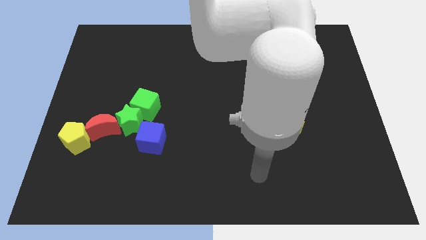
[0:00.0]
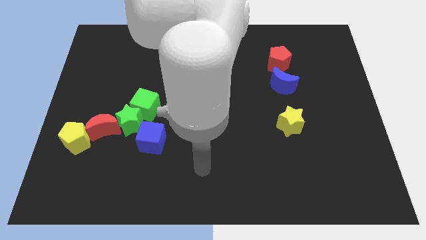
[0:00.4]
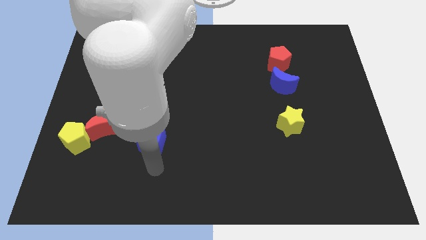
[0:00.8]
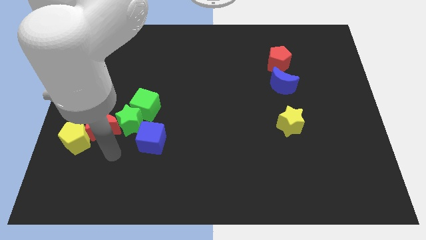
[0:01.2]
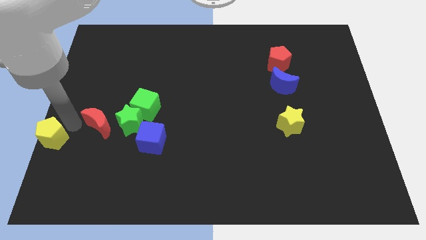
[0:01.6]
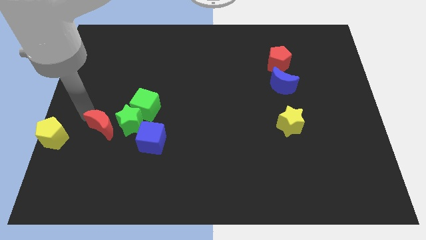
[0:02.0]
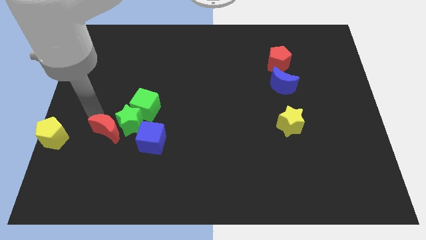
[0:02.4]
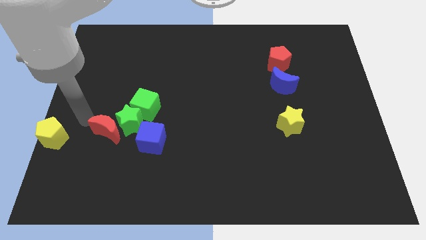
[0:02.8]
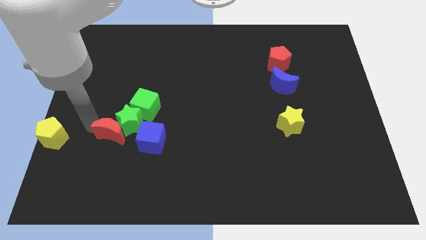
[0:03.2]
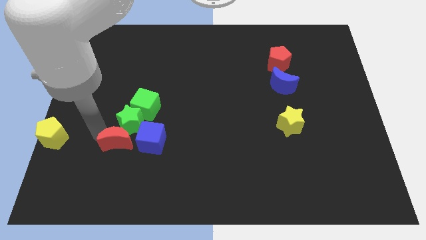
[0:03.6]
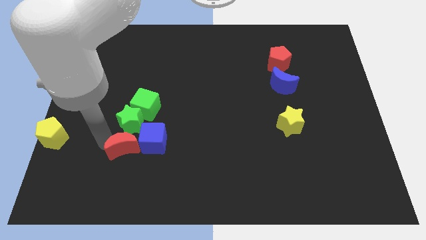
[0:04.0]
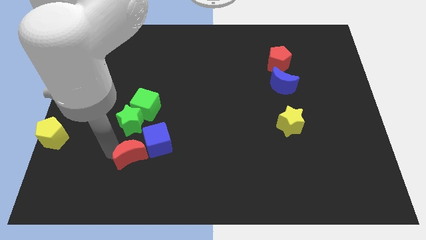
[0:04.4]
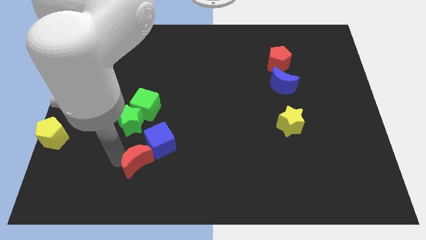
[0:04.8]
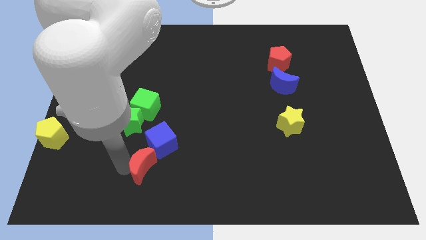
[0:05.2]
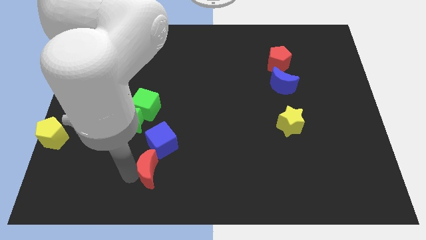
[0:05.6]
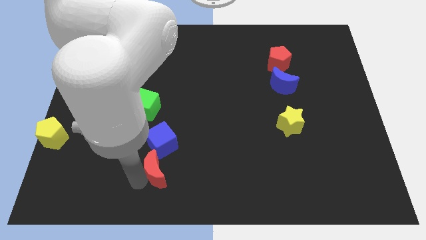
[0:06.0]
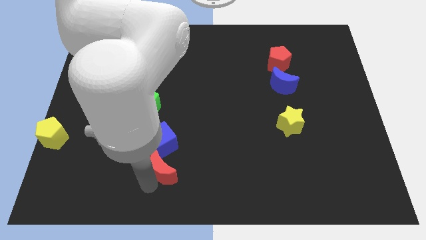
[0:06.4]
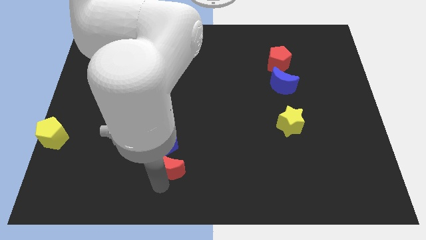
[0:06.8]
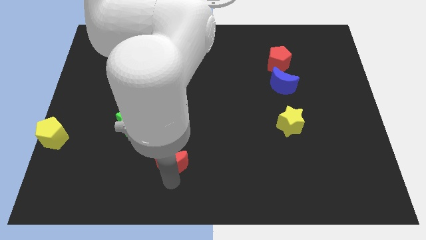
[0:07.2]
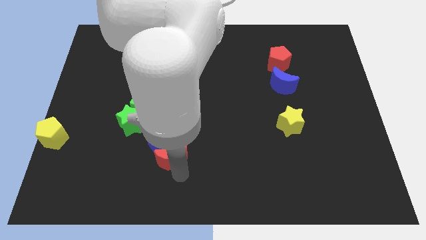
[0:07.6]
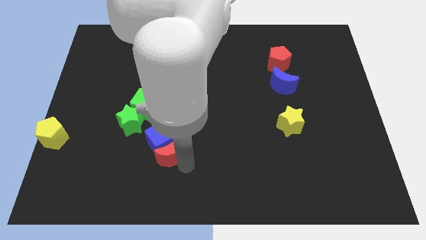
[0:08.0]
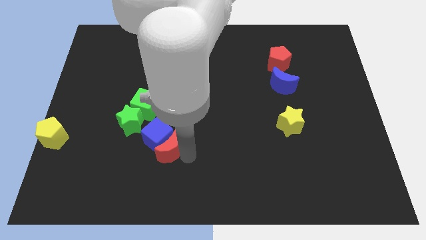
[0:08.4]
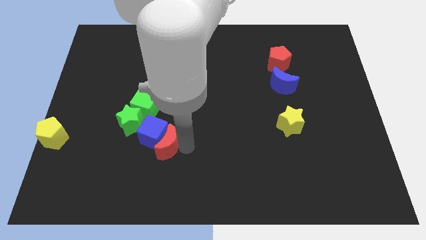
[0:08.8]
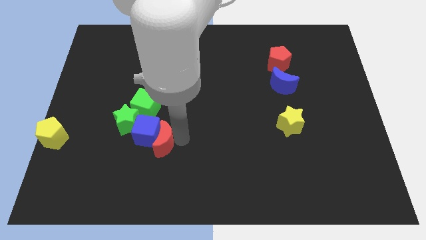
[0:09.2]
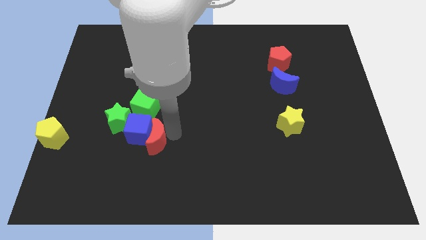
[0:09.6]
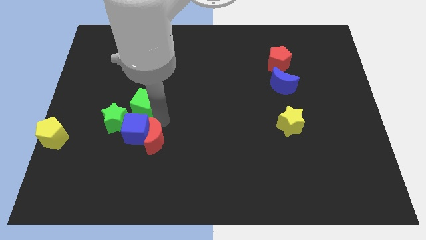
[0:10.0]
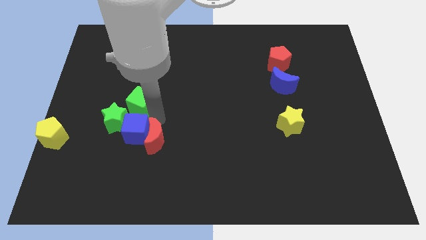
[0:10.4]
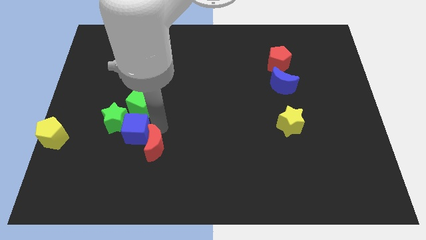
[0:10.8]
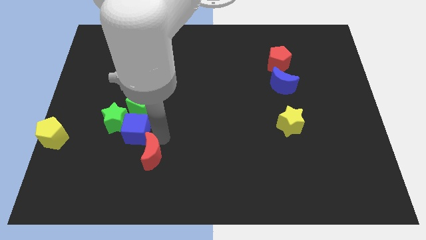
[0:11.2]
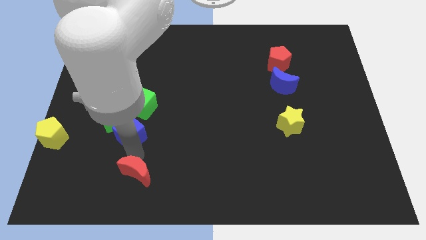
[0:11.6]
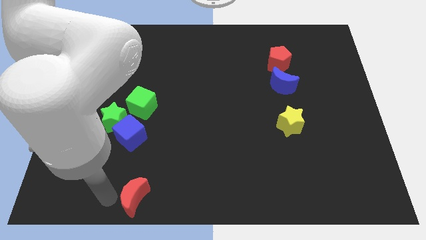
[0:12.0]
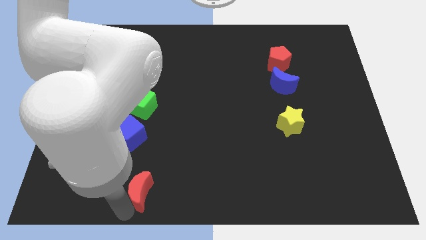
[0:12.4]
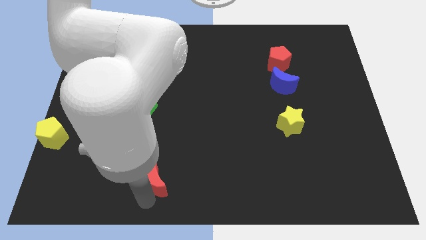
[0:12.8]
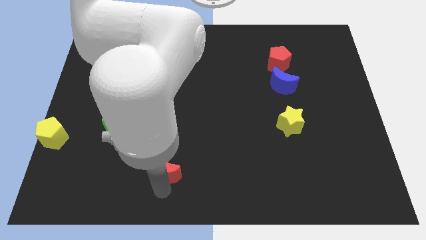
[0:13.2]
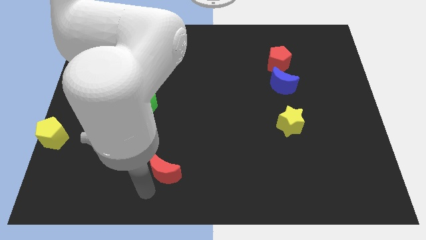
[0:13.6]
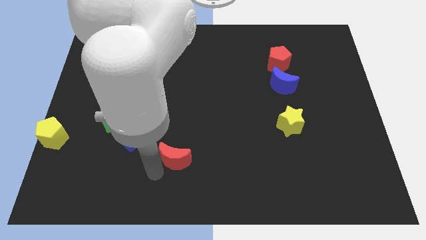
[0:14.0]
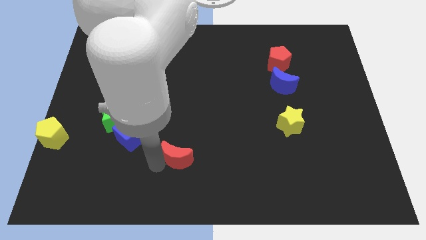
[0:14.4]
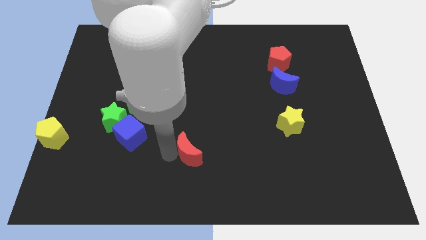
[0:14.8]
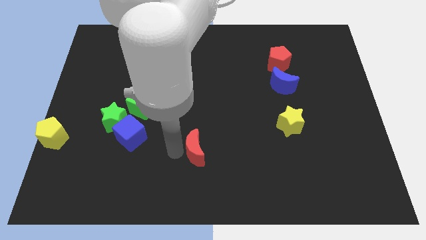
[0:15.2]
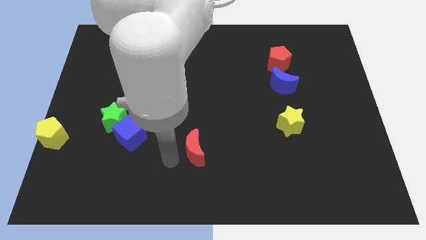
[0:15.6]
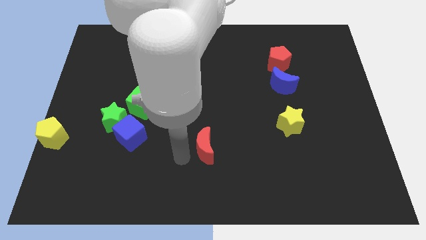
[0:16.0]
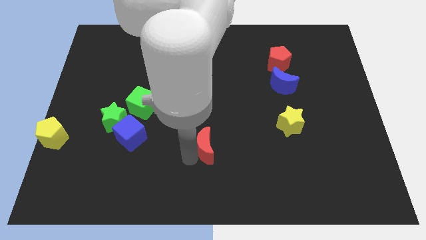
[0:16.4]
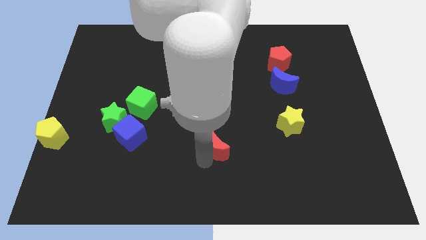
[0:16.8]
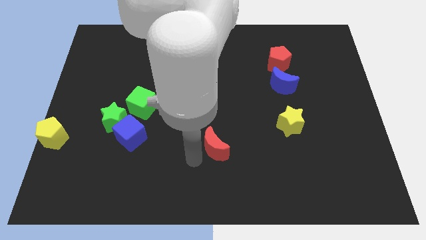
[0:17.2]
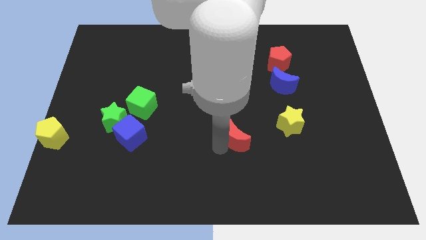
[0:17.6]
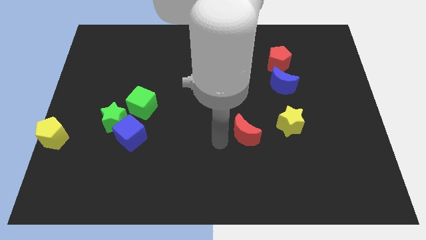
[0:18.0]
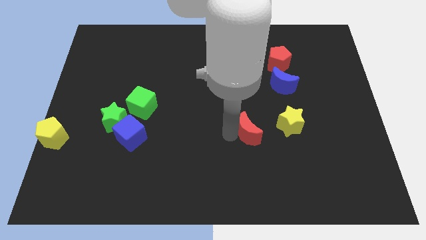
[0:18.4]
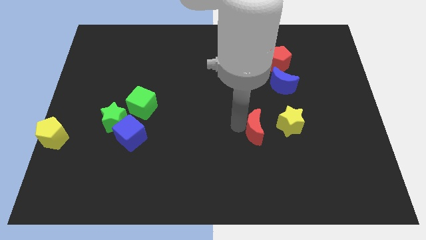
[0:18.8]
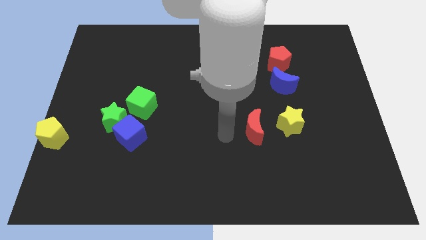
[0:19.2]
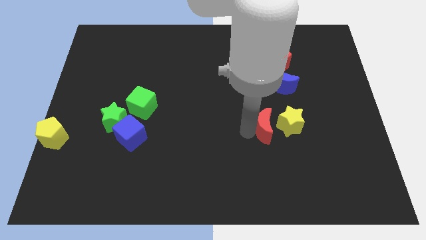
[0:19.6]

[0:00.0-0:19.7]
move the red moon to the yellow star

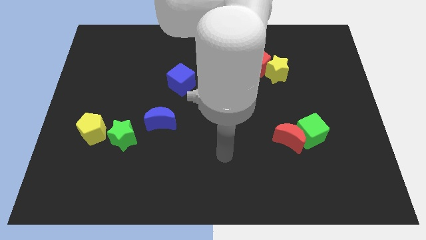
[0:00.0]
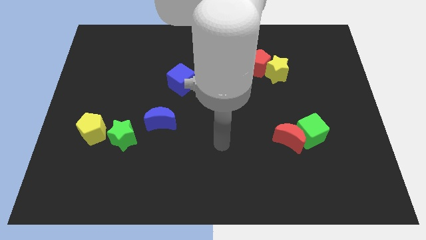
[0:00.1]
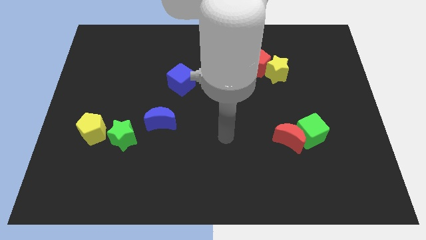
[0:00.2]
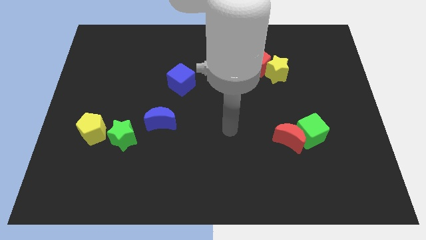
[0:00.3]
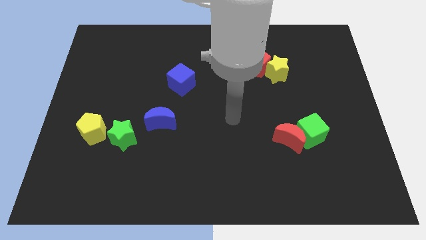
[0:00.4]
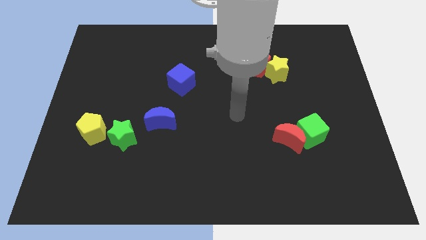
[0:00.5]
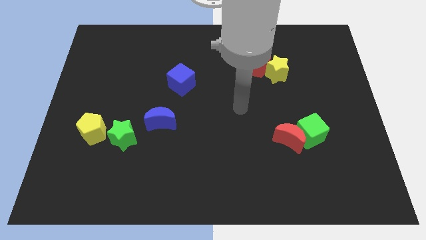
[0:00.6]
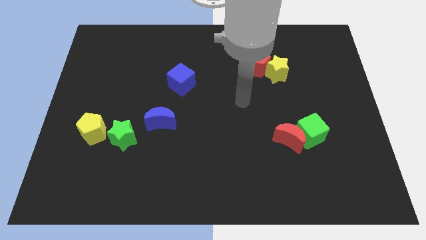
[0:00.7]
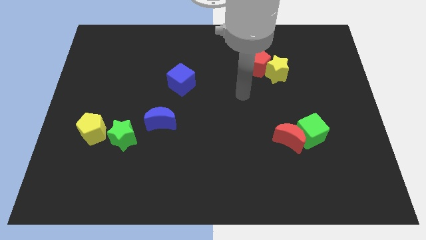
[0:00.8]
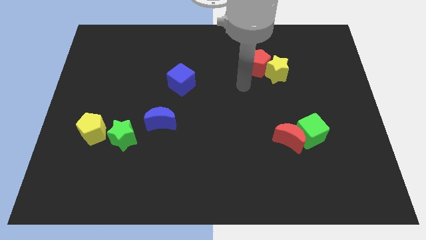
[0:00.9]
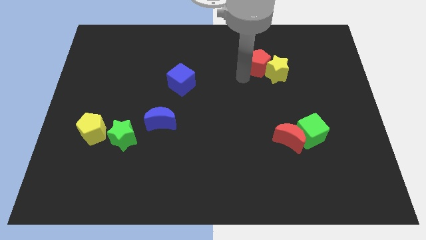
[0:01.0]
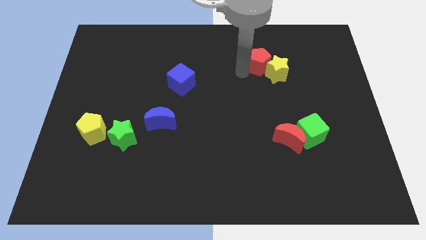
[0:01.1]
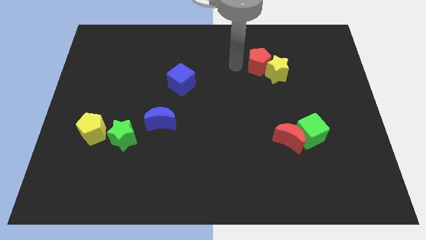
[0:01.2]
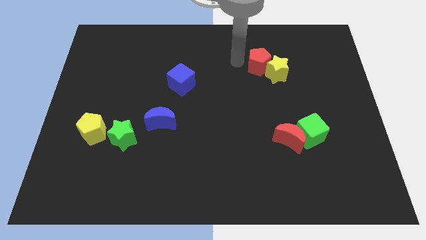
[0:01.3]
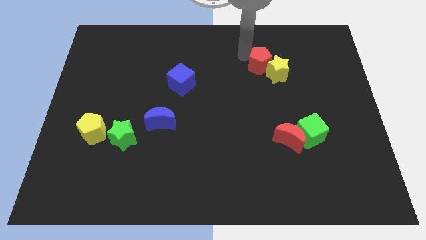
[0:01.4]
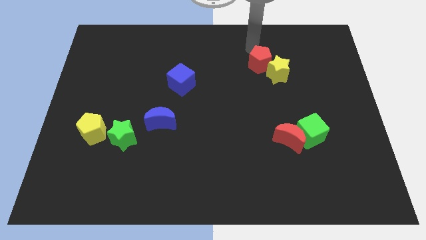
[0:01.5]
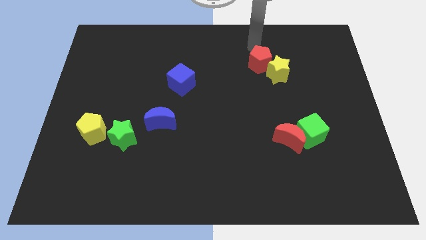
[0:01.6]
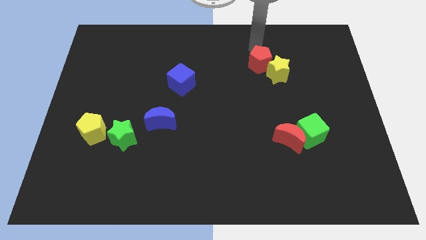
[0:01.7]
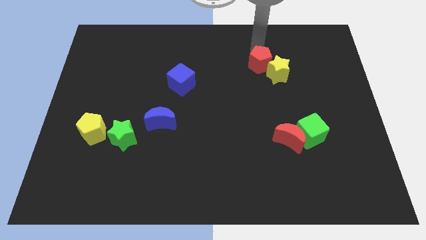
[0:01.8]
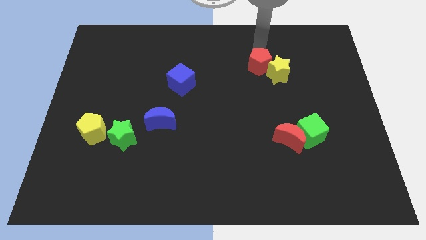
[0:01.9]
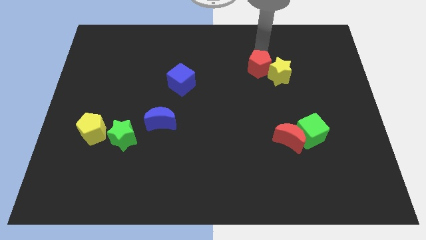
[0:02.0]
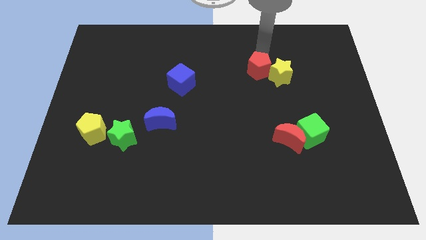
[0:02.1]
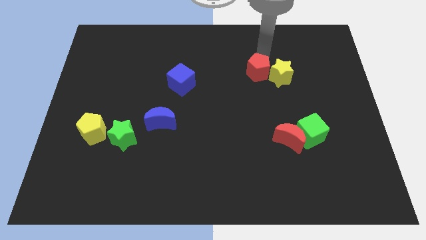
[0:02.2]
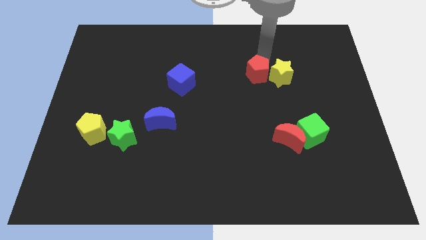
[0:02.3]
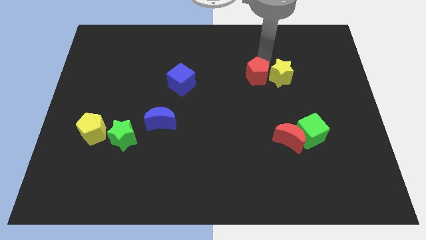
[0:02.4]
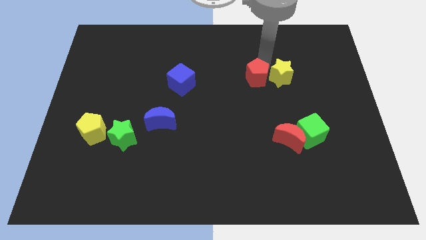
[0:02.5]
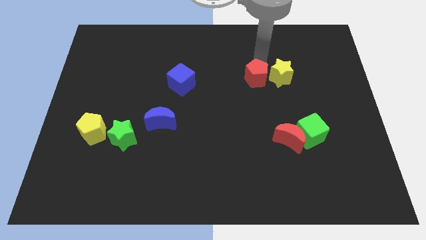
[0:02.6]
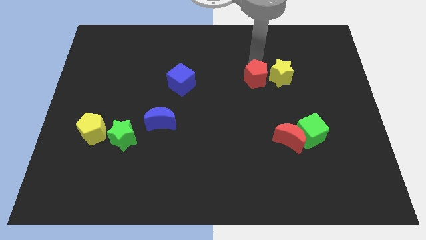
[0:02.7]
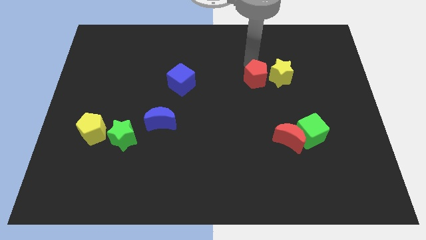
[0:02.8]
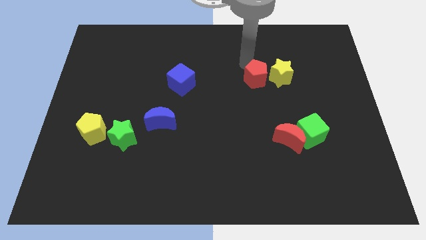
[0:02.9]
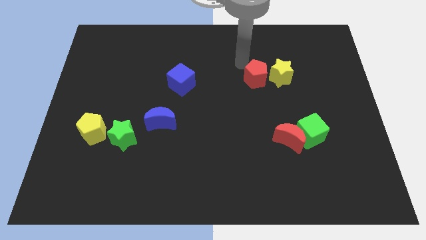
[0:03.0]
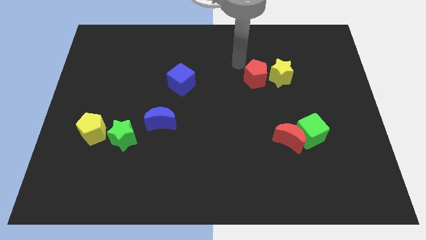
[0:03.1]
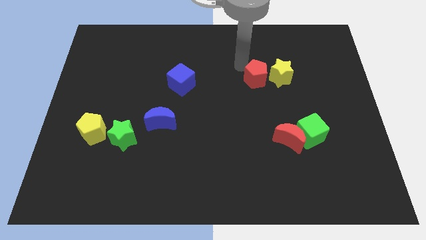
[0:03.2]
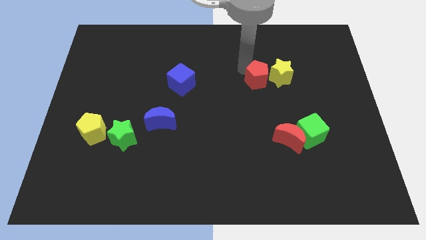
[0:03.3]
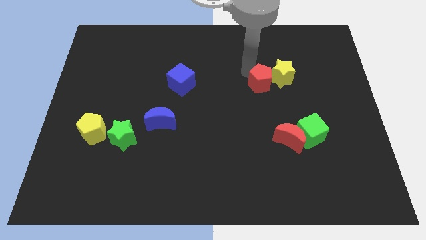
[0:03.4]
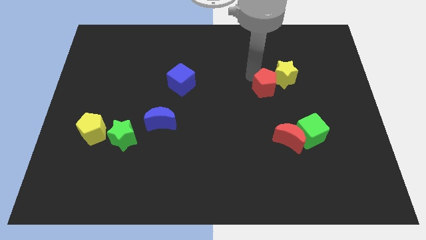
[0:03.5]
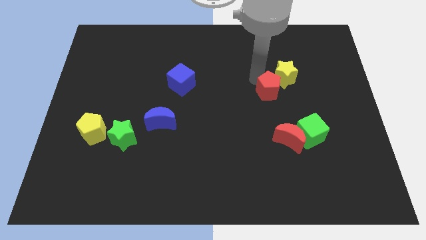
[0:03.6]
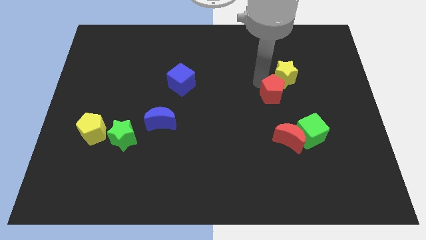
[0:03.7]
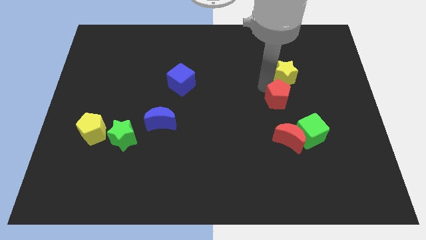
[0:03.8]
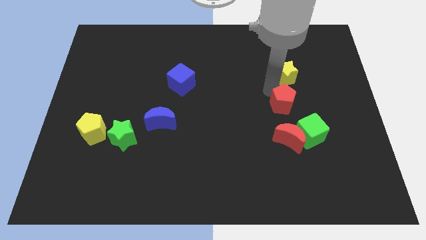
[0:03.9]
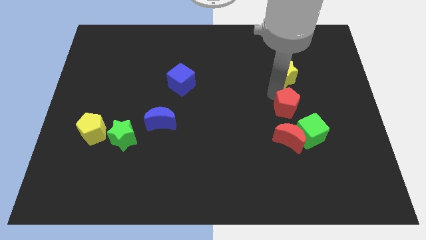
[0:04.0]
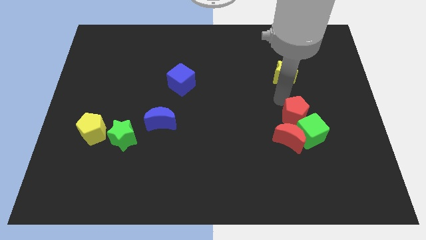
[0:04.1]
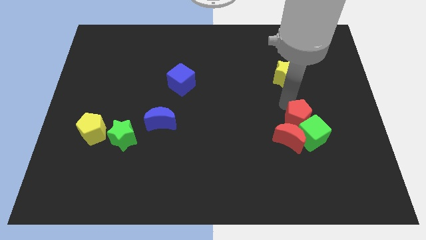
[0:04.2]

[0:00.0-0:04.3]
move the red pentagon next to the red moon
